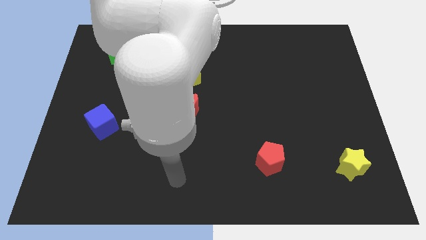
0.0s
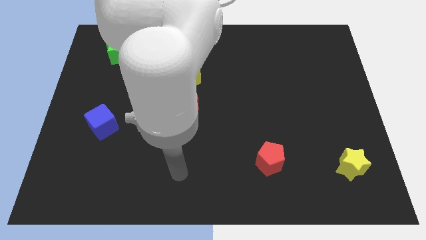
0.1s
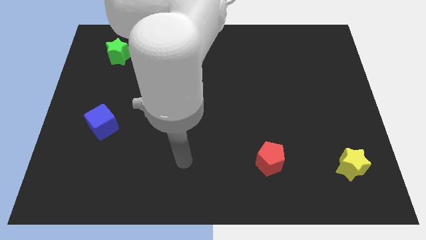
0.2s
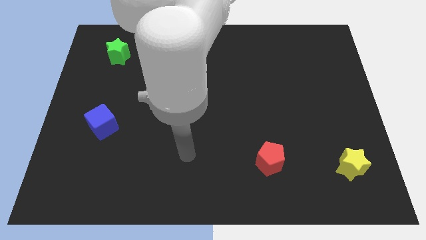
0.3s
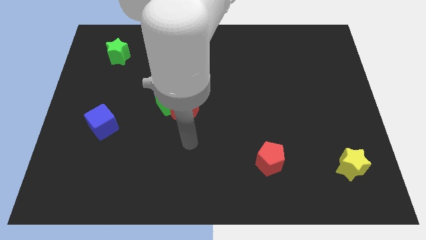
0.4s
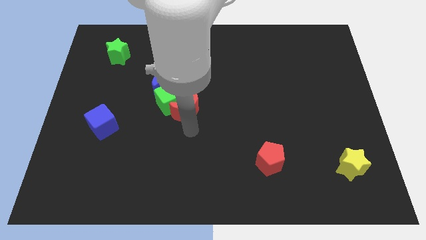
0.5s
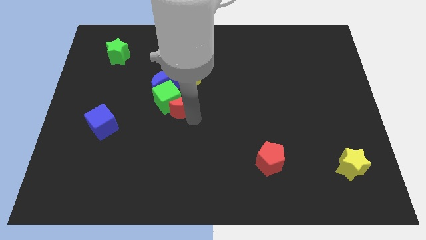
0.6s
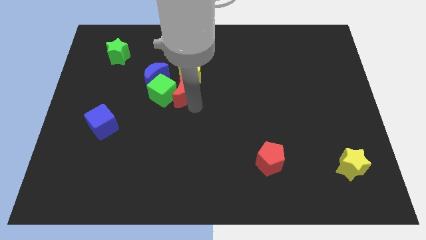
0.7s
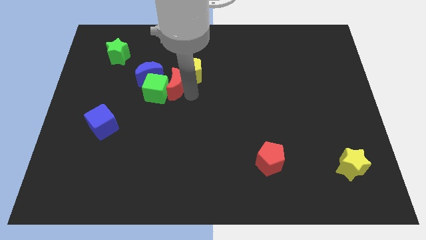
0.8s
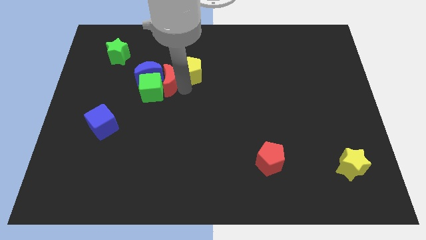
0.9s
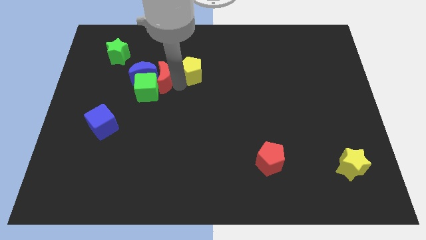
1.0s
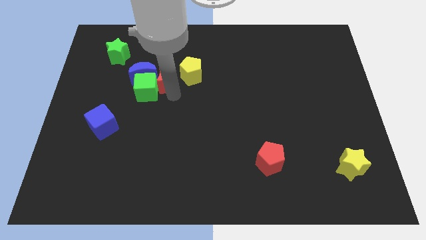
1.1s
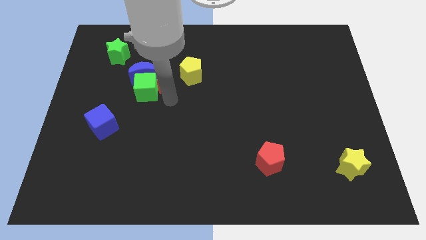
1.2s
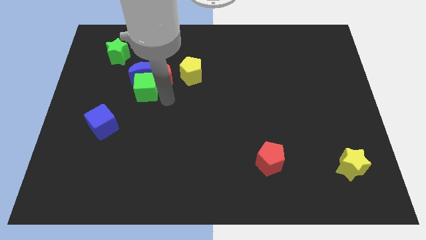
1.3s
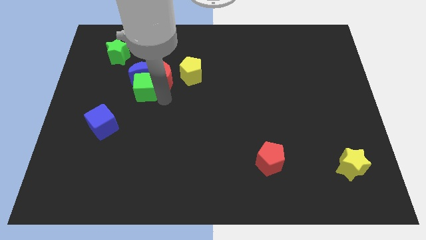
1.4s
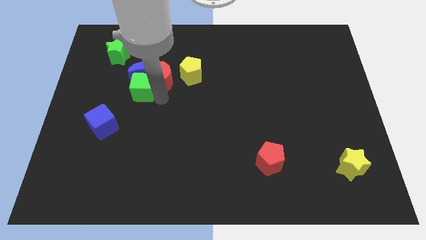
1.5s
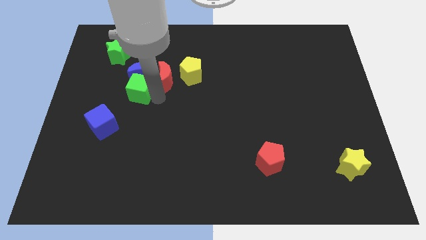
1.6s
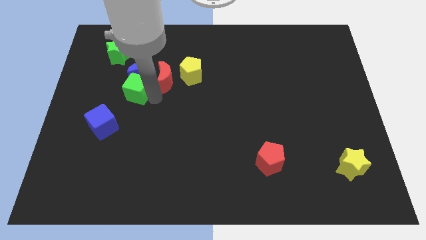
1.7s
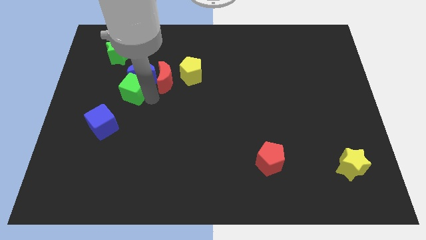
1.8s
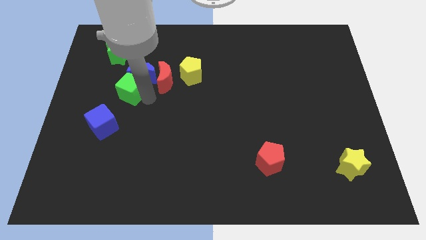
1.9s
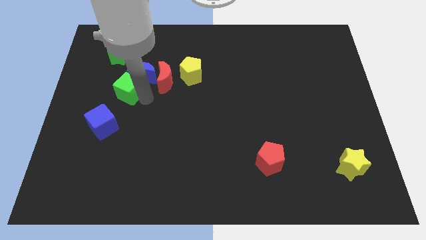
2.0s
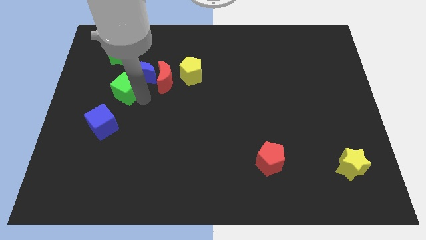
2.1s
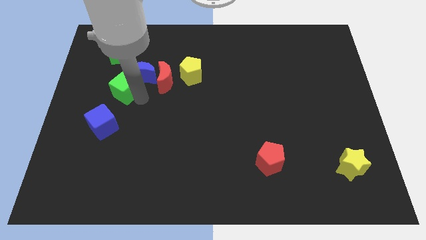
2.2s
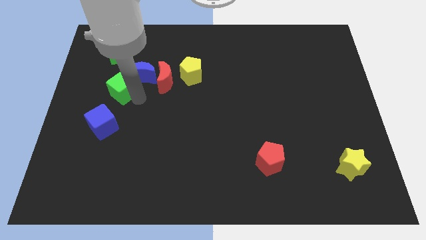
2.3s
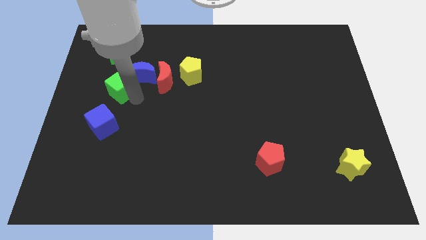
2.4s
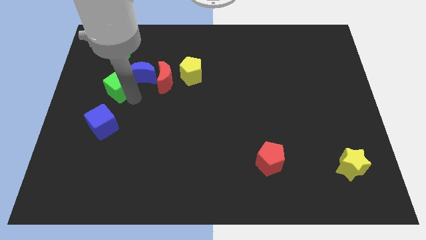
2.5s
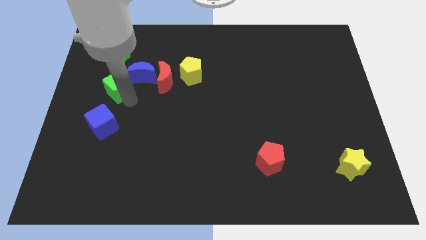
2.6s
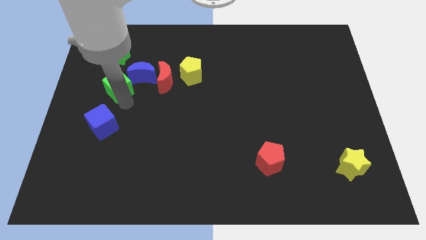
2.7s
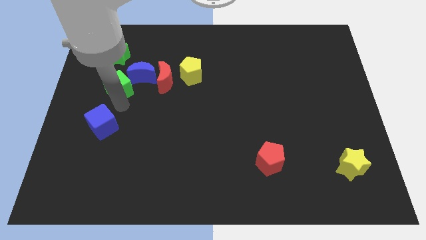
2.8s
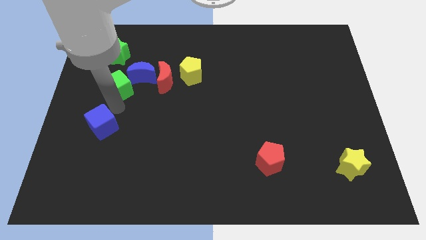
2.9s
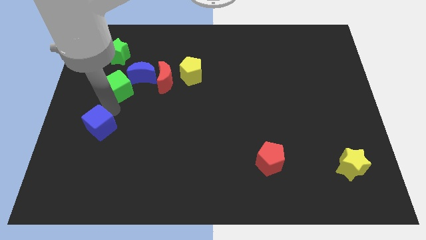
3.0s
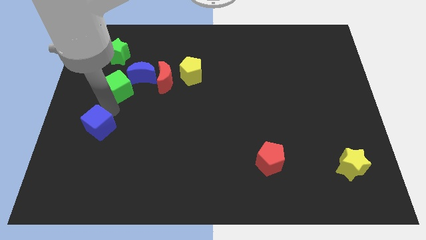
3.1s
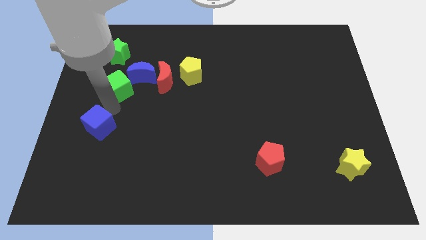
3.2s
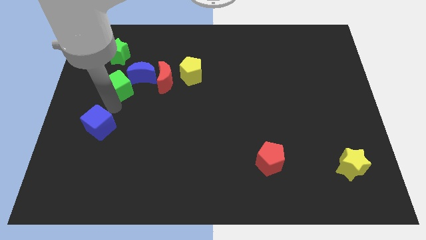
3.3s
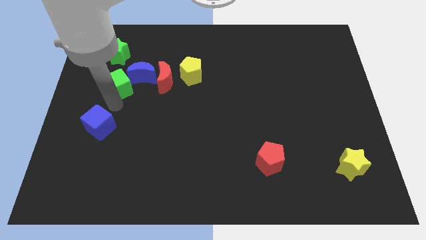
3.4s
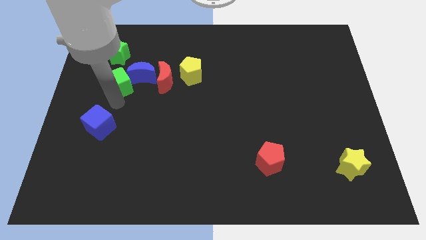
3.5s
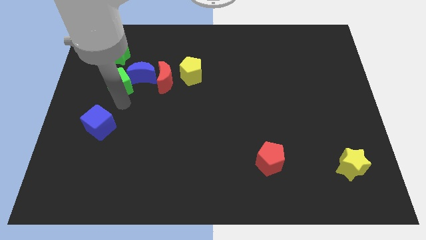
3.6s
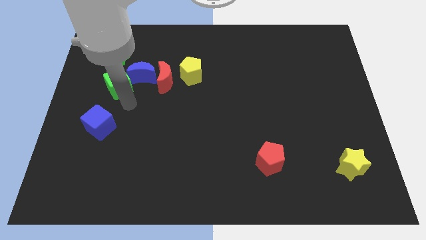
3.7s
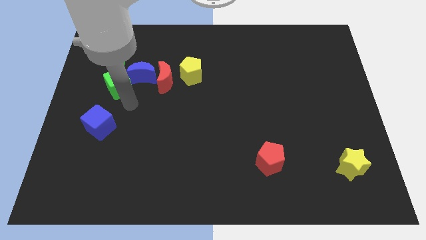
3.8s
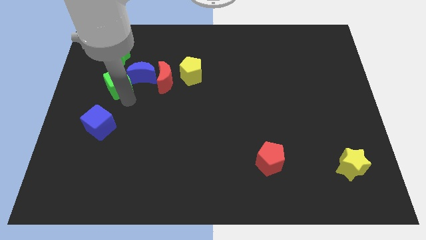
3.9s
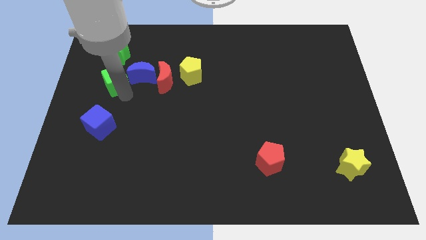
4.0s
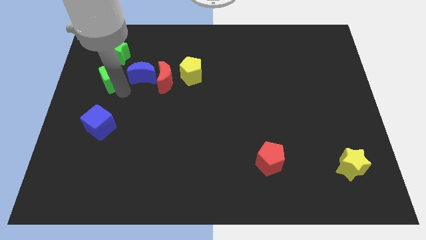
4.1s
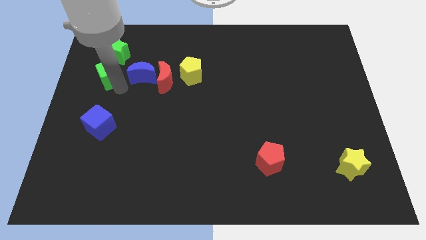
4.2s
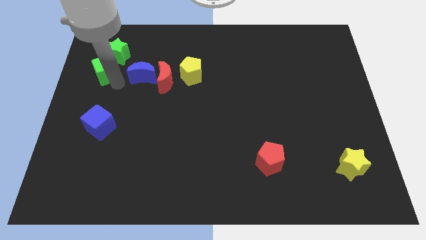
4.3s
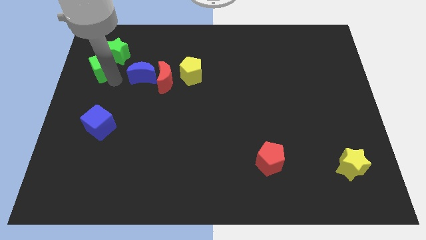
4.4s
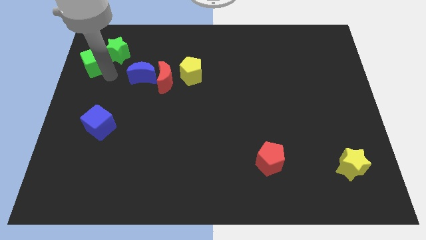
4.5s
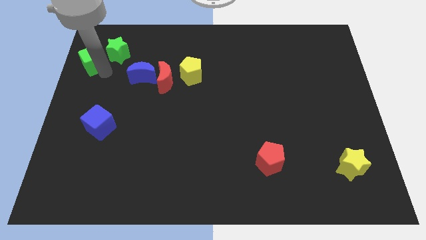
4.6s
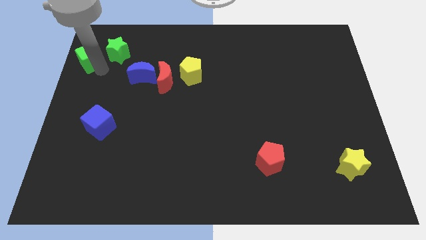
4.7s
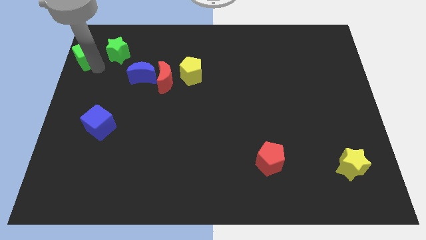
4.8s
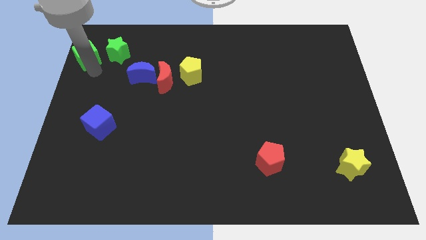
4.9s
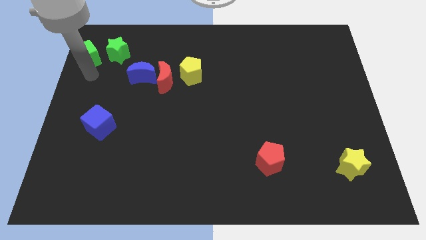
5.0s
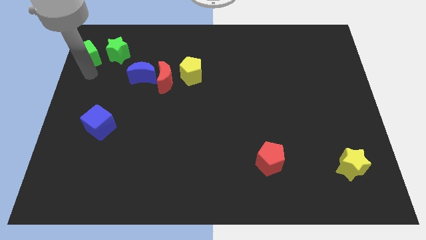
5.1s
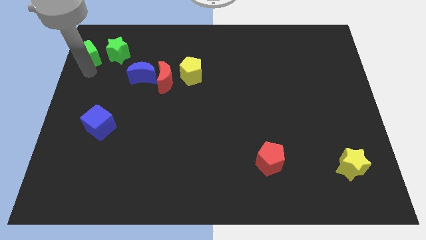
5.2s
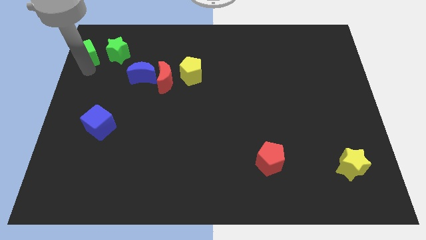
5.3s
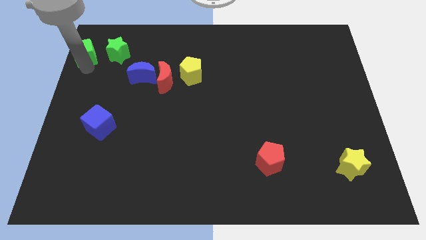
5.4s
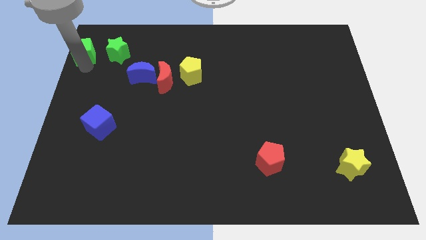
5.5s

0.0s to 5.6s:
push the green cube to the upper left corner

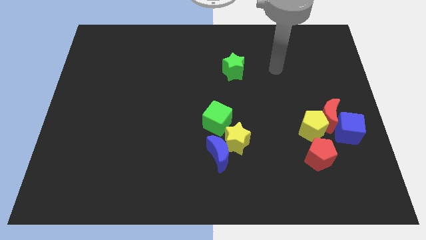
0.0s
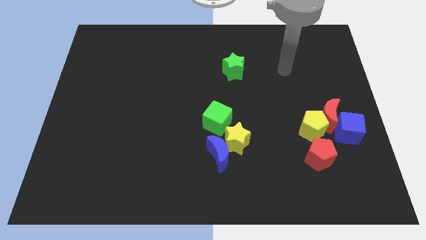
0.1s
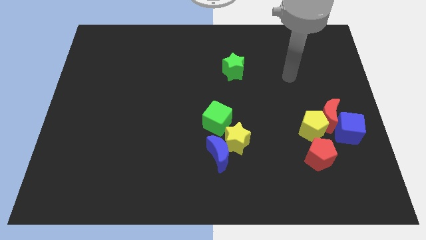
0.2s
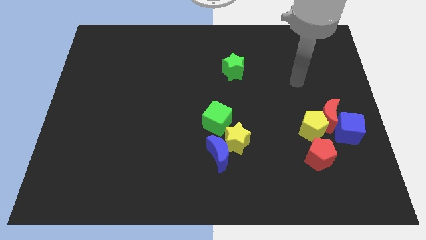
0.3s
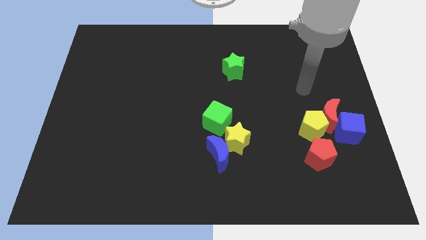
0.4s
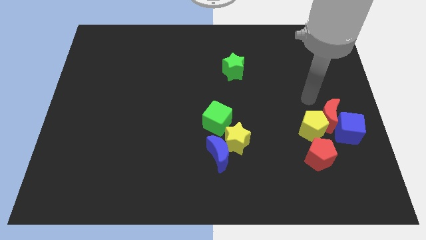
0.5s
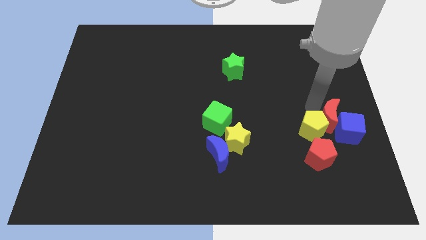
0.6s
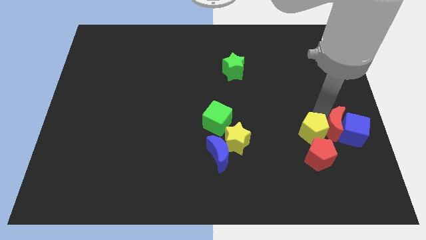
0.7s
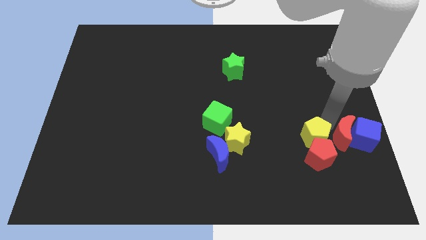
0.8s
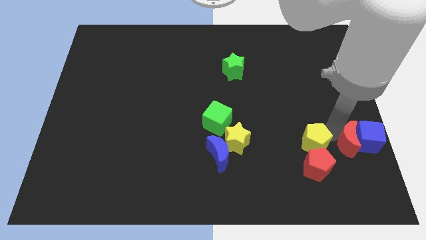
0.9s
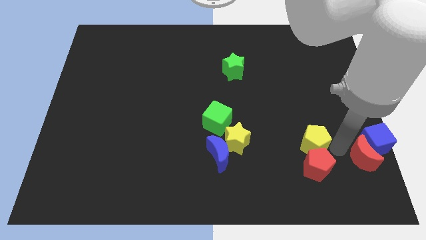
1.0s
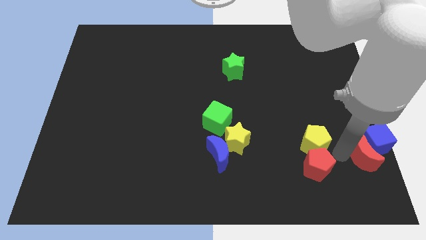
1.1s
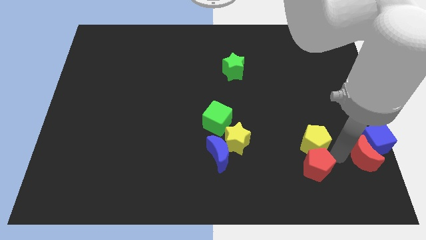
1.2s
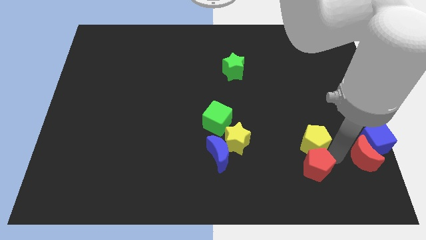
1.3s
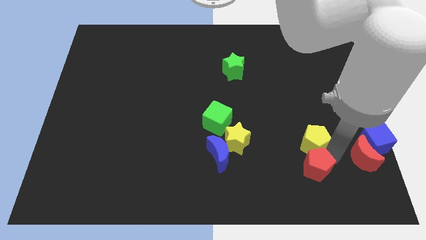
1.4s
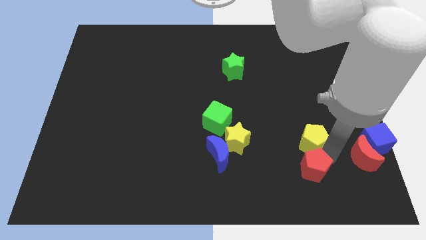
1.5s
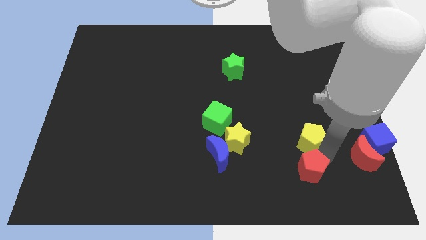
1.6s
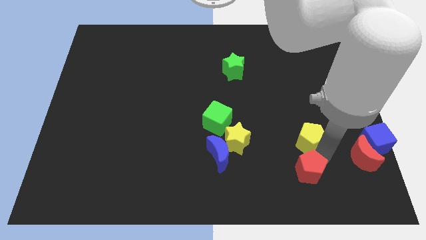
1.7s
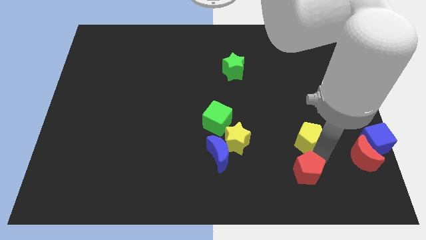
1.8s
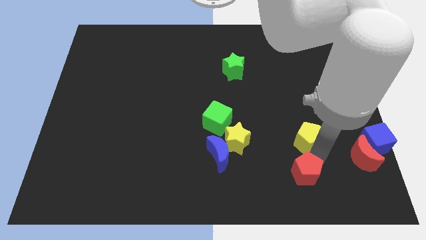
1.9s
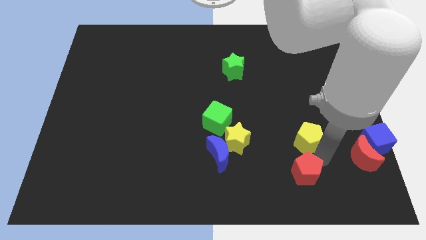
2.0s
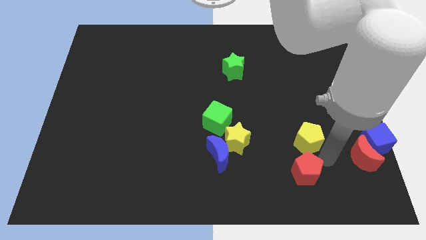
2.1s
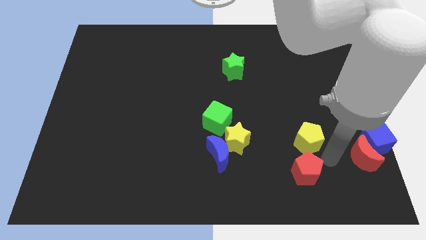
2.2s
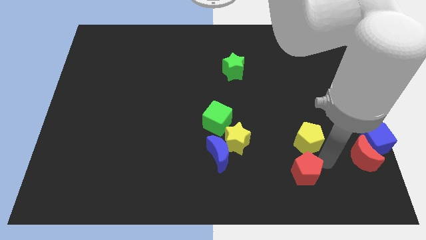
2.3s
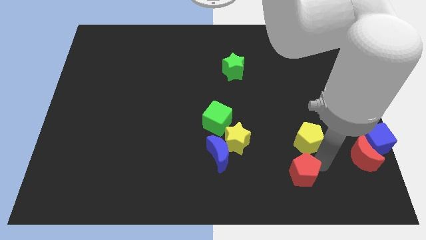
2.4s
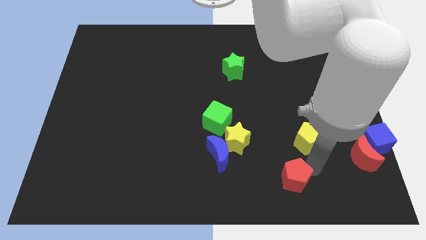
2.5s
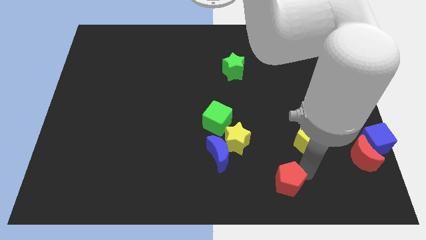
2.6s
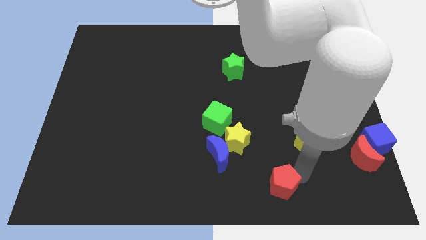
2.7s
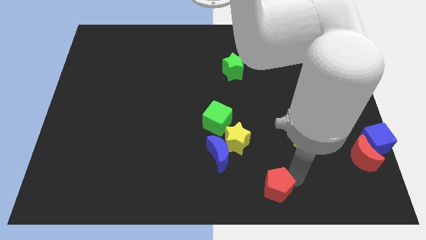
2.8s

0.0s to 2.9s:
push the red pentagon to the bottom side
